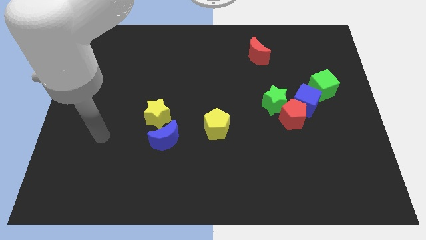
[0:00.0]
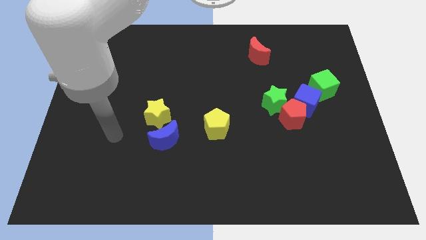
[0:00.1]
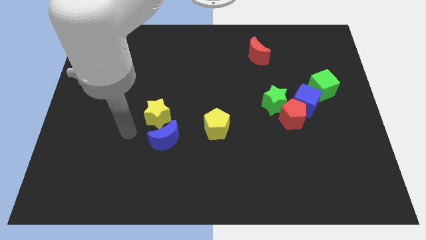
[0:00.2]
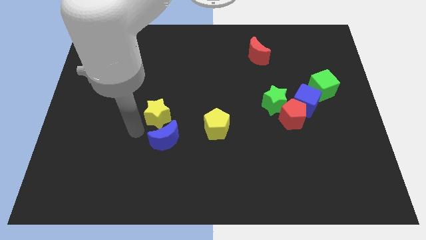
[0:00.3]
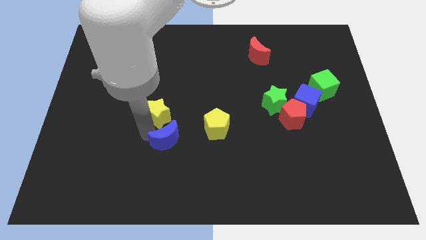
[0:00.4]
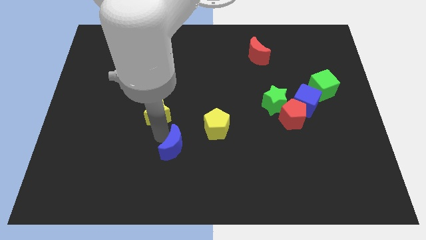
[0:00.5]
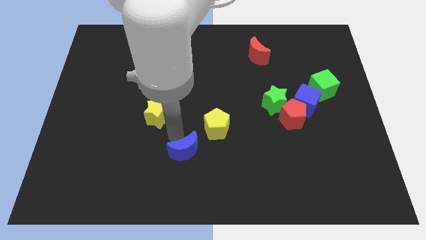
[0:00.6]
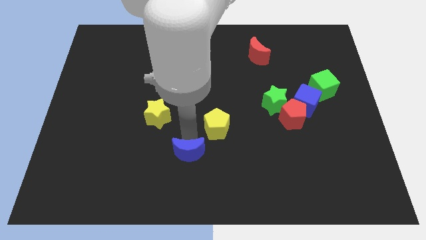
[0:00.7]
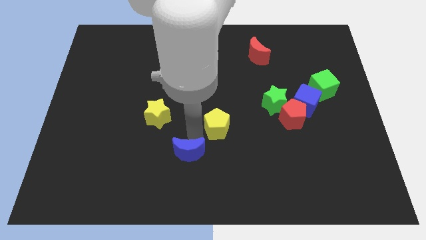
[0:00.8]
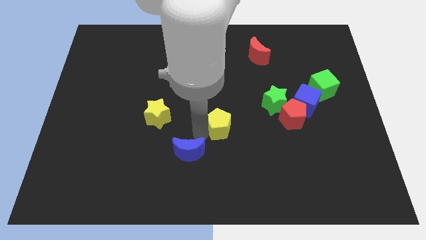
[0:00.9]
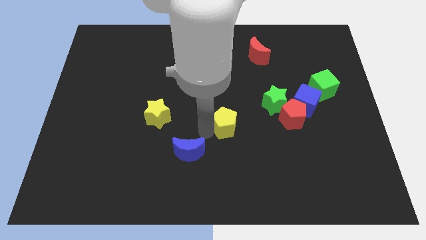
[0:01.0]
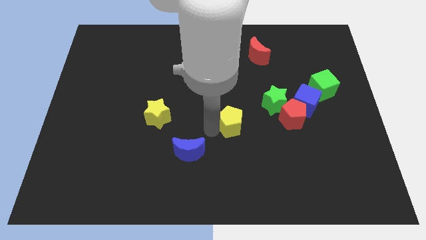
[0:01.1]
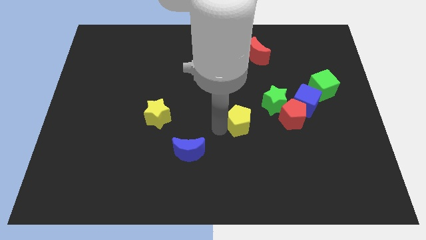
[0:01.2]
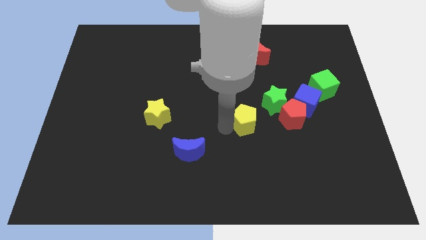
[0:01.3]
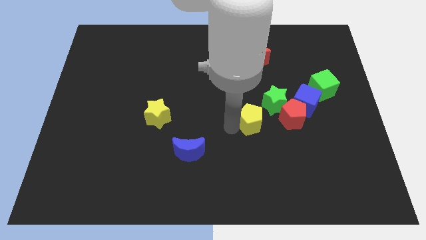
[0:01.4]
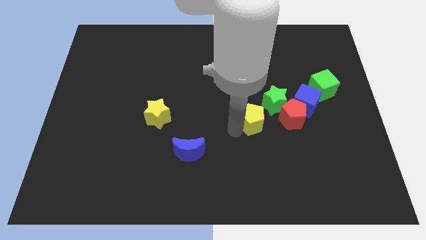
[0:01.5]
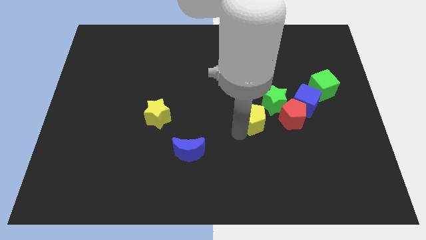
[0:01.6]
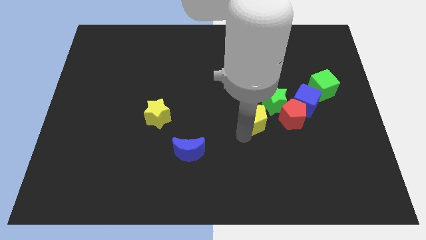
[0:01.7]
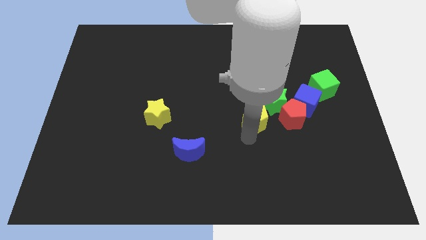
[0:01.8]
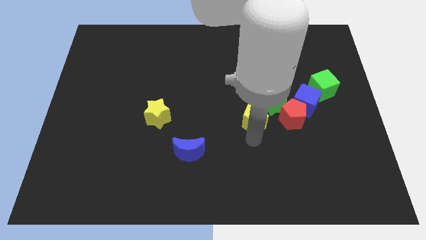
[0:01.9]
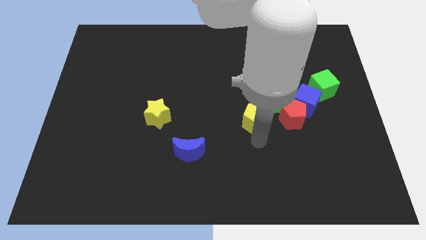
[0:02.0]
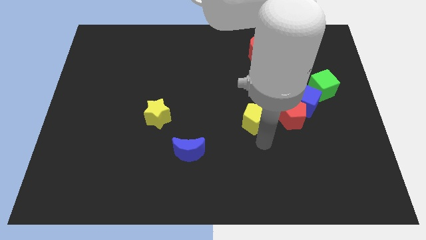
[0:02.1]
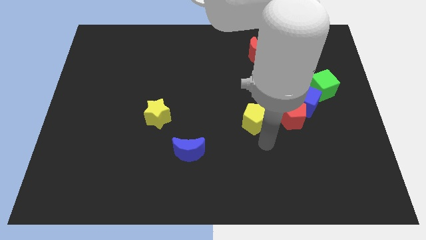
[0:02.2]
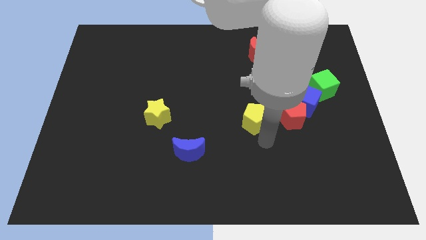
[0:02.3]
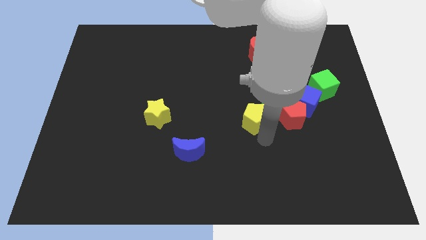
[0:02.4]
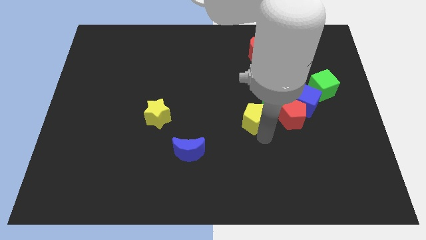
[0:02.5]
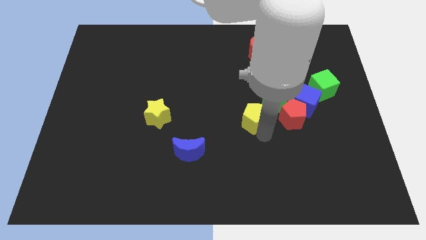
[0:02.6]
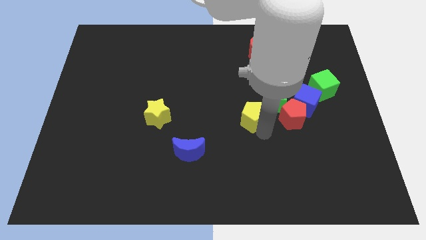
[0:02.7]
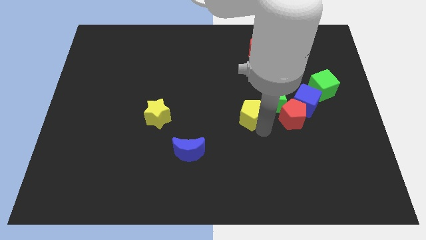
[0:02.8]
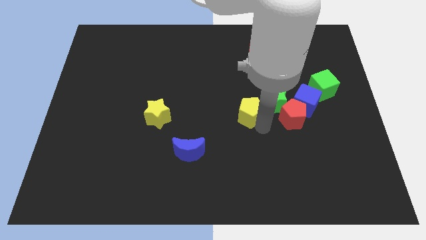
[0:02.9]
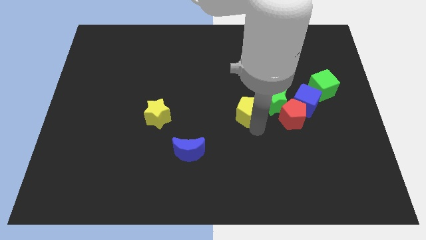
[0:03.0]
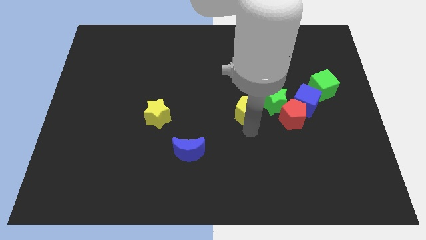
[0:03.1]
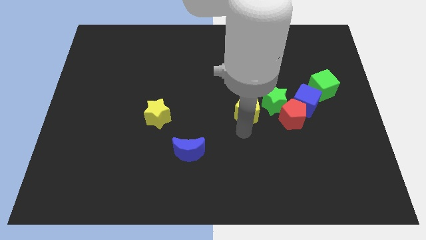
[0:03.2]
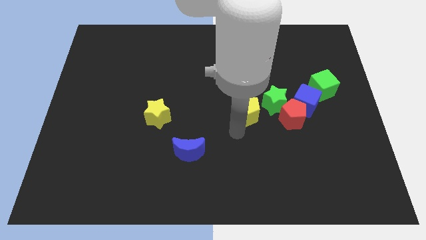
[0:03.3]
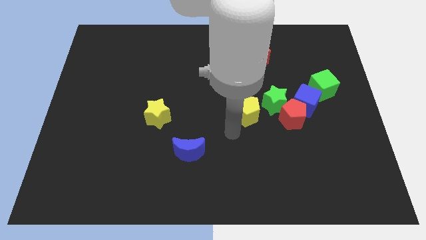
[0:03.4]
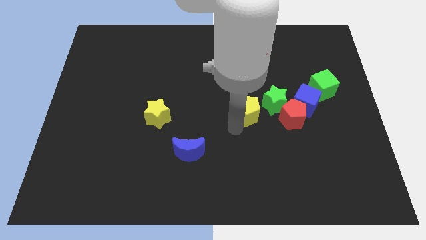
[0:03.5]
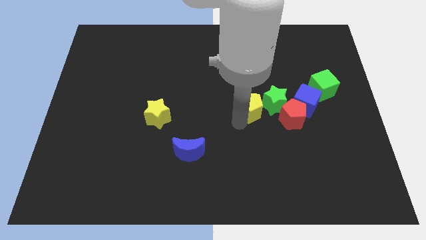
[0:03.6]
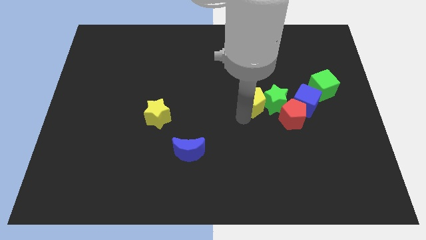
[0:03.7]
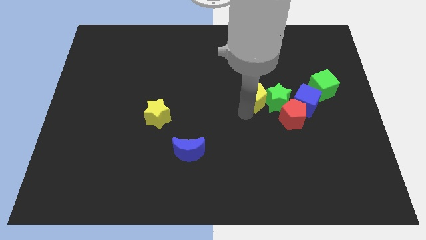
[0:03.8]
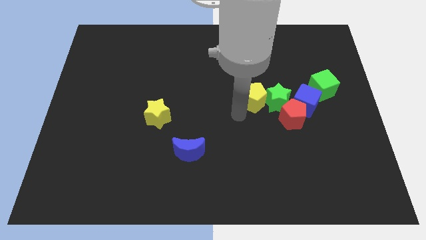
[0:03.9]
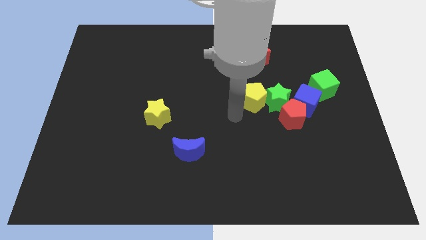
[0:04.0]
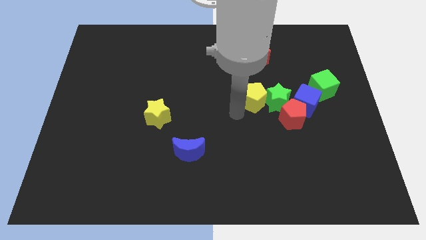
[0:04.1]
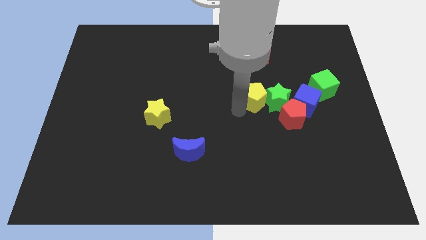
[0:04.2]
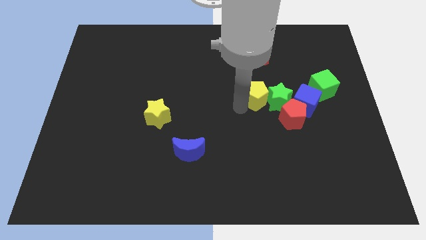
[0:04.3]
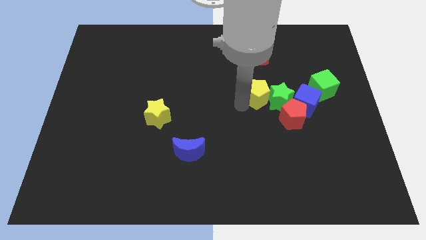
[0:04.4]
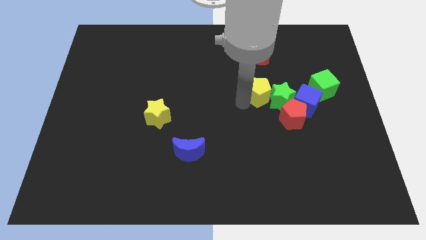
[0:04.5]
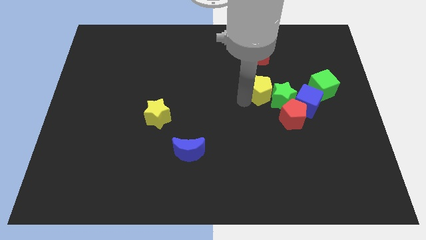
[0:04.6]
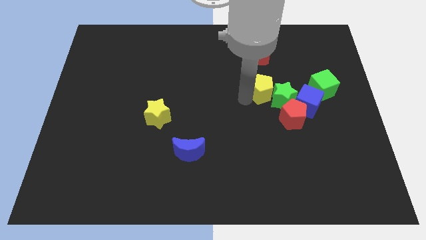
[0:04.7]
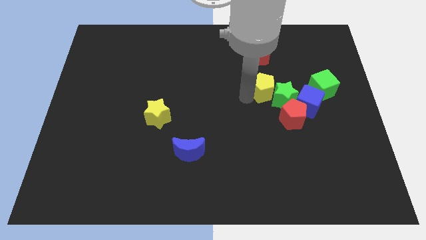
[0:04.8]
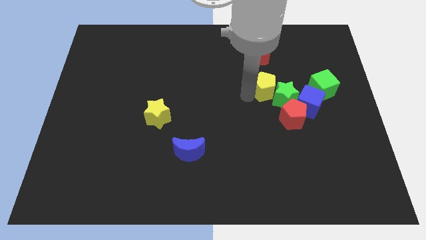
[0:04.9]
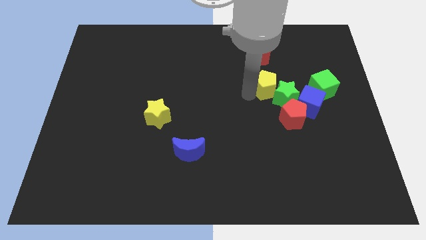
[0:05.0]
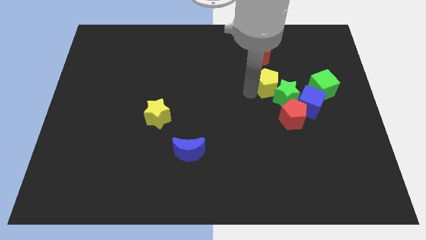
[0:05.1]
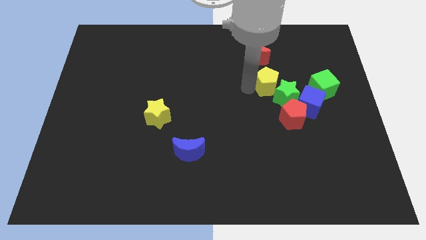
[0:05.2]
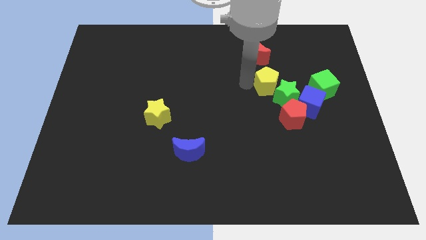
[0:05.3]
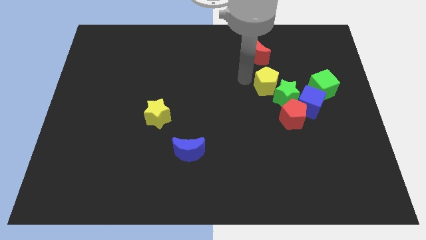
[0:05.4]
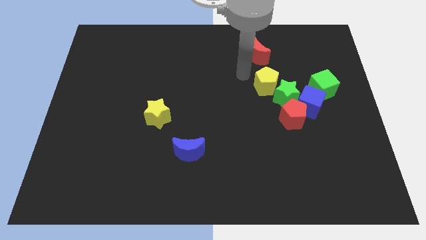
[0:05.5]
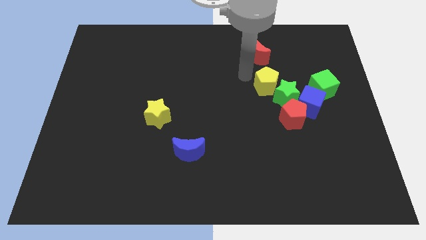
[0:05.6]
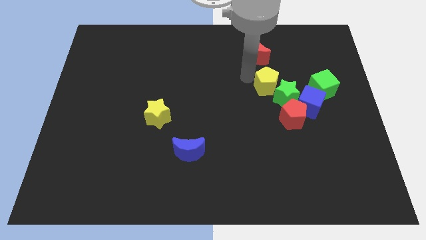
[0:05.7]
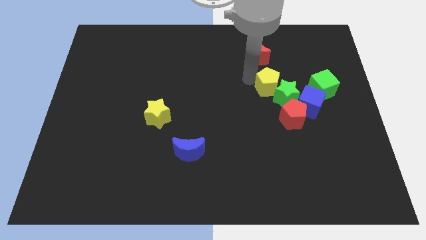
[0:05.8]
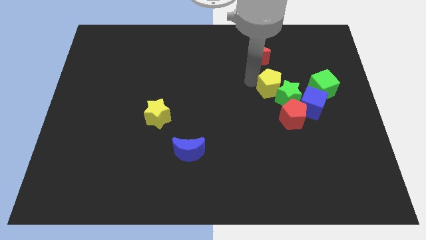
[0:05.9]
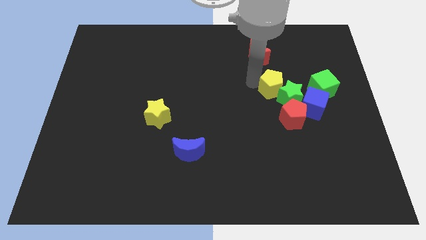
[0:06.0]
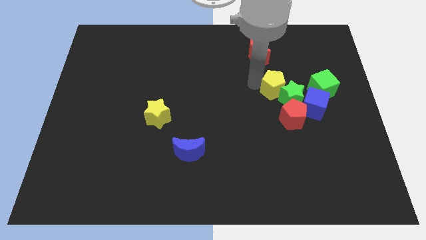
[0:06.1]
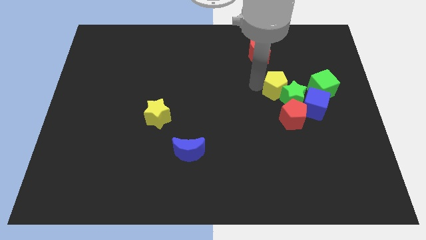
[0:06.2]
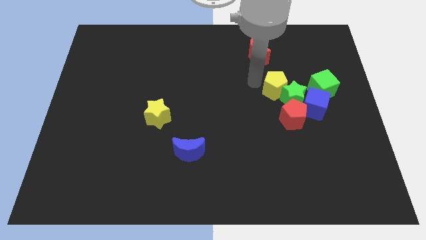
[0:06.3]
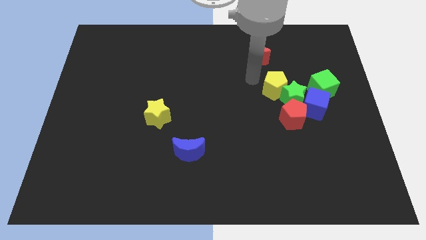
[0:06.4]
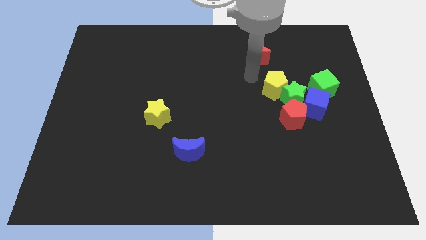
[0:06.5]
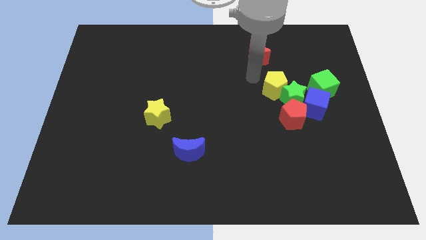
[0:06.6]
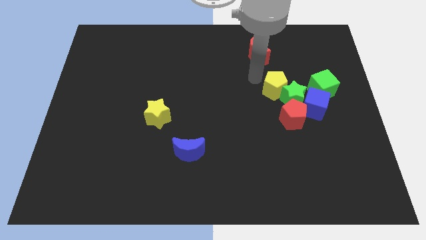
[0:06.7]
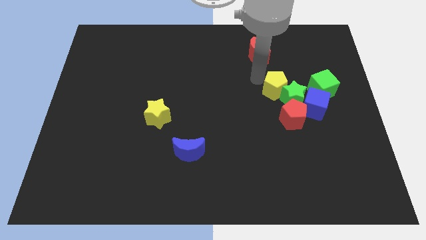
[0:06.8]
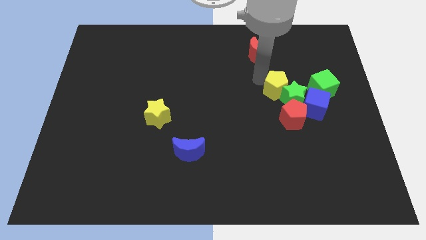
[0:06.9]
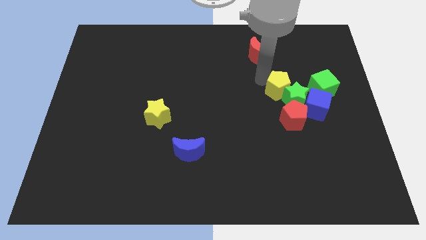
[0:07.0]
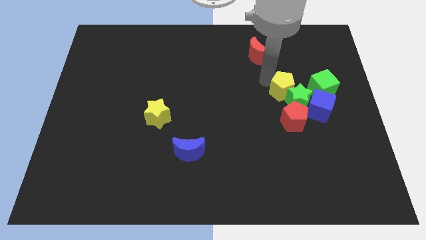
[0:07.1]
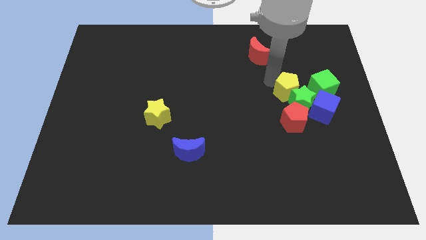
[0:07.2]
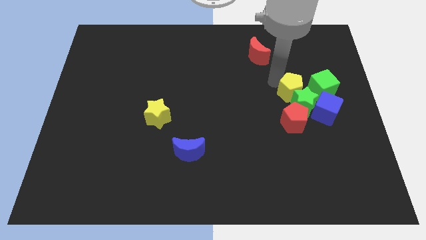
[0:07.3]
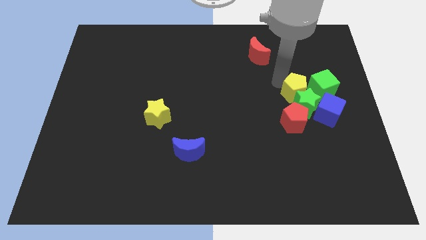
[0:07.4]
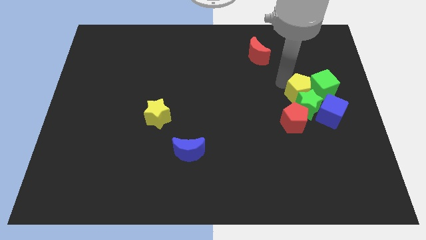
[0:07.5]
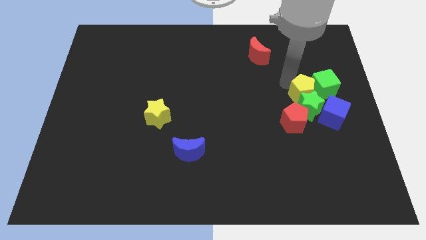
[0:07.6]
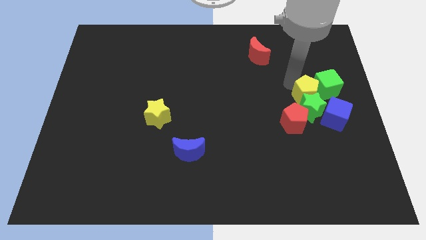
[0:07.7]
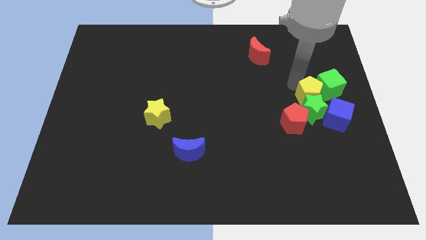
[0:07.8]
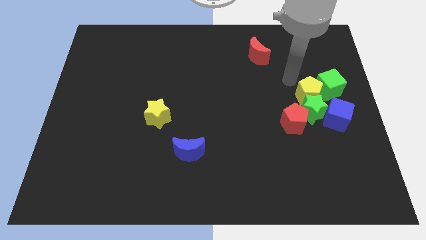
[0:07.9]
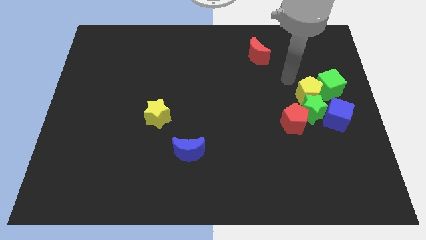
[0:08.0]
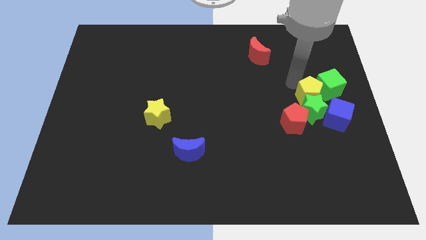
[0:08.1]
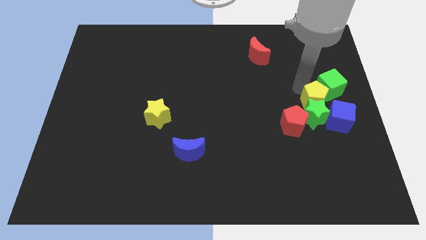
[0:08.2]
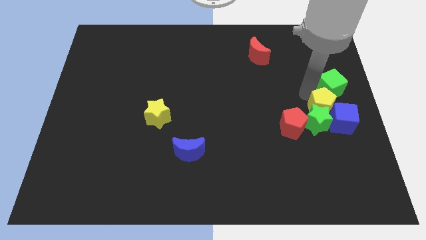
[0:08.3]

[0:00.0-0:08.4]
slide the yellow pentagon next to the blue cube
